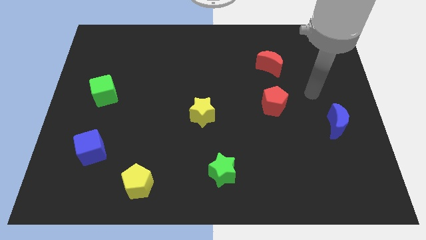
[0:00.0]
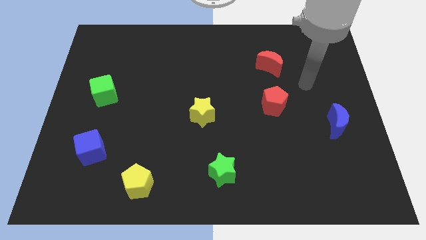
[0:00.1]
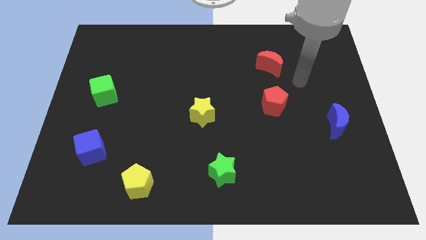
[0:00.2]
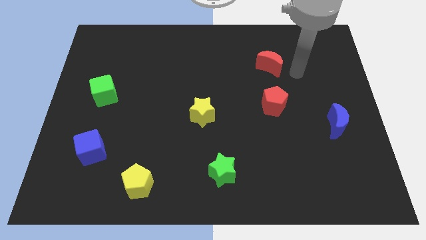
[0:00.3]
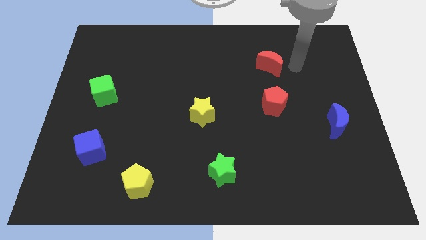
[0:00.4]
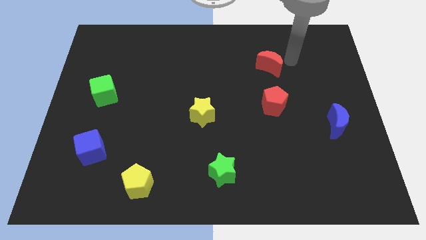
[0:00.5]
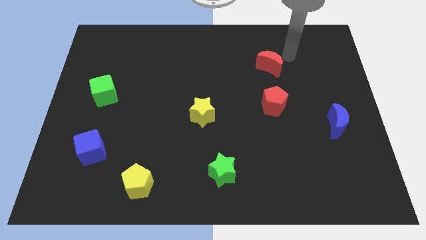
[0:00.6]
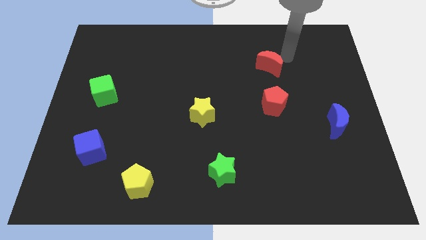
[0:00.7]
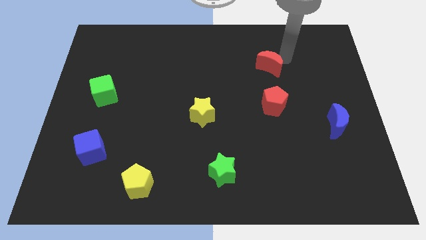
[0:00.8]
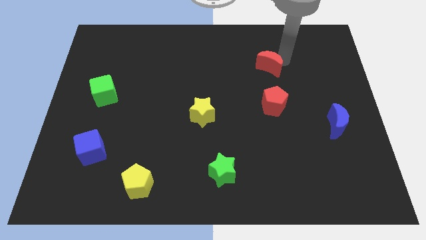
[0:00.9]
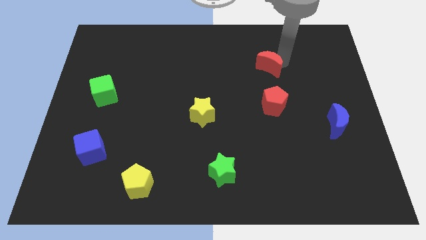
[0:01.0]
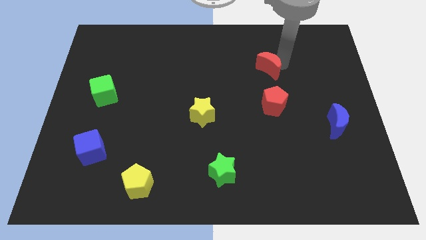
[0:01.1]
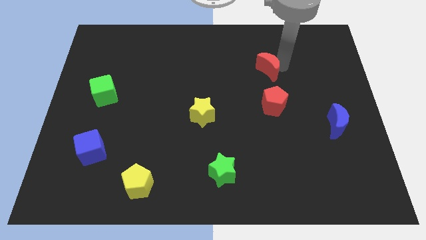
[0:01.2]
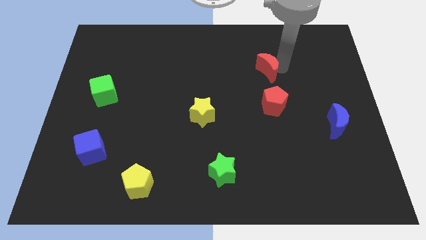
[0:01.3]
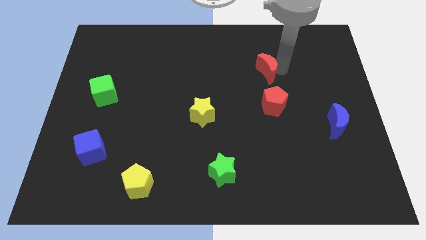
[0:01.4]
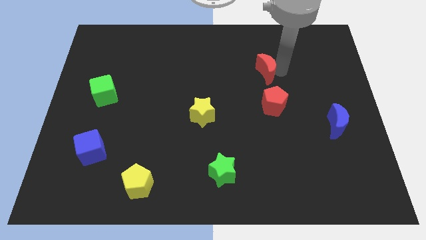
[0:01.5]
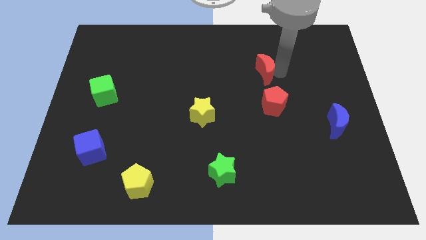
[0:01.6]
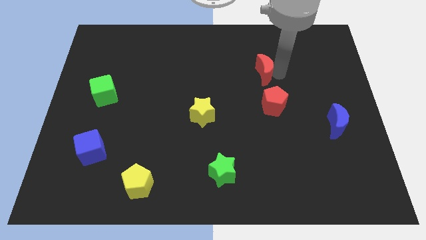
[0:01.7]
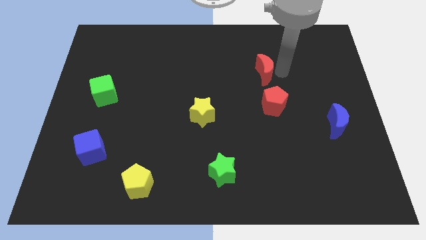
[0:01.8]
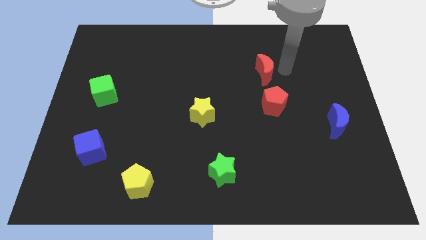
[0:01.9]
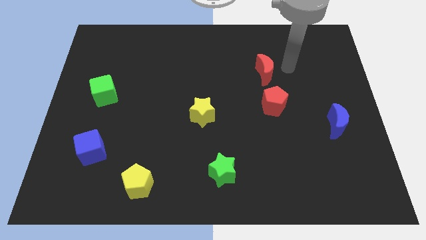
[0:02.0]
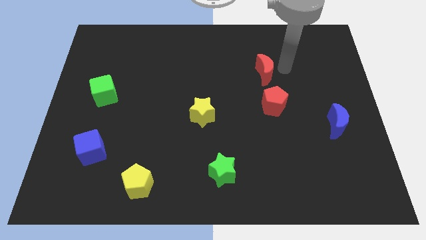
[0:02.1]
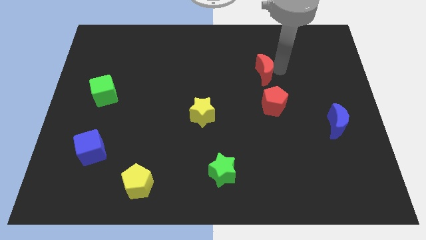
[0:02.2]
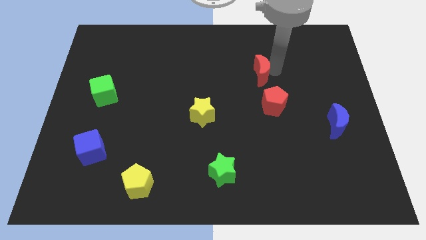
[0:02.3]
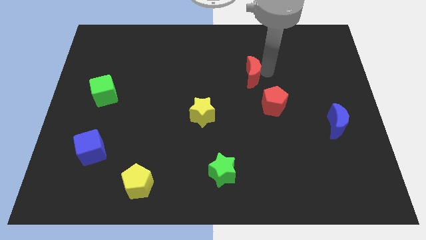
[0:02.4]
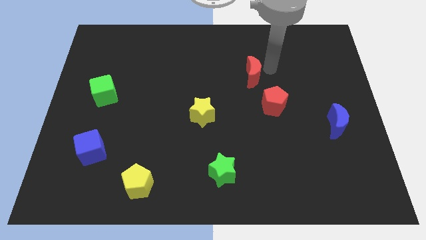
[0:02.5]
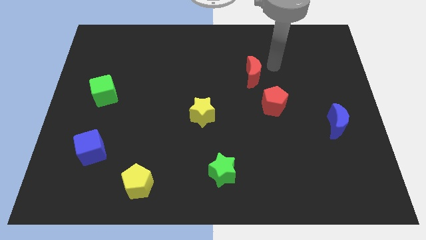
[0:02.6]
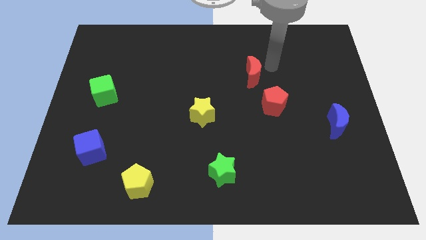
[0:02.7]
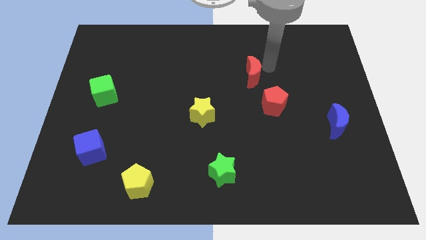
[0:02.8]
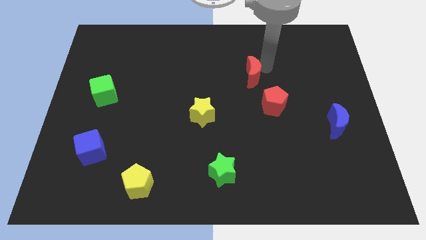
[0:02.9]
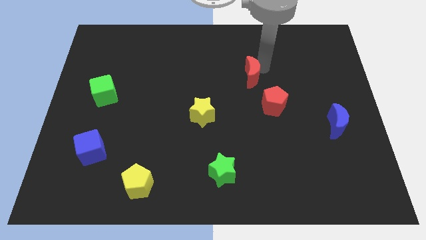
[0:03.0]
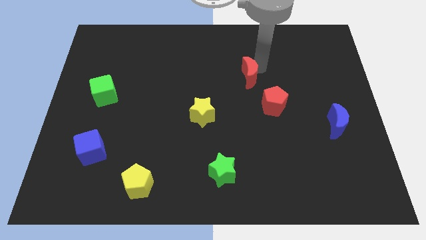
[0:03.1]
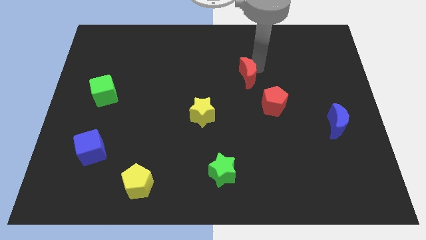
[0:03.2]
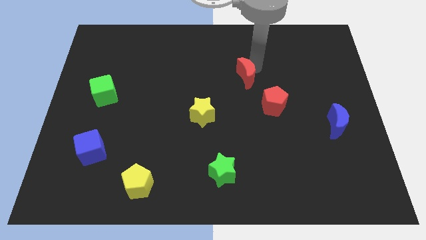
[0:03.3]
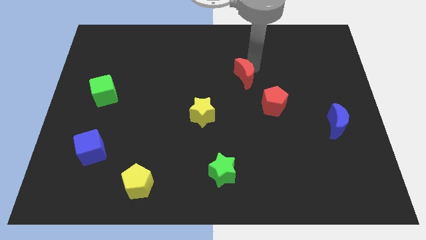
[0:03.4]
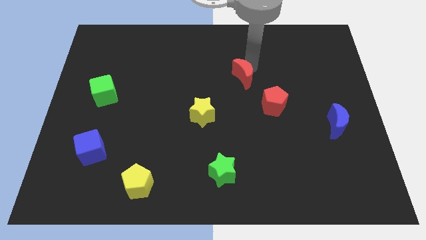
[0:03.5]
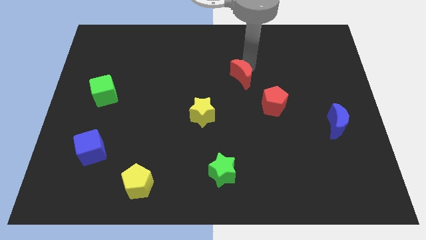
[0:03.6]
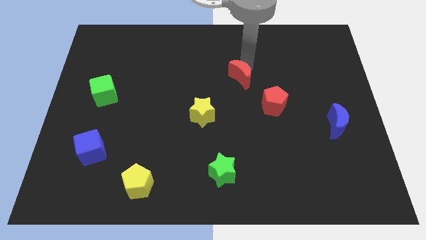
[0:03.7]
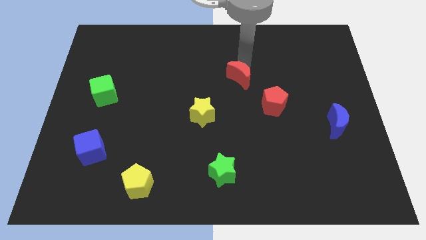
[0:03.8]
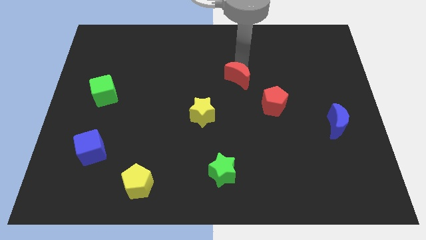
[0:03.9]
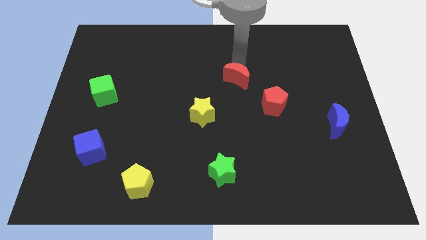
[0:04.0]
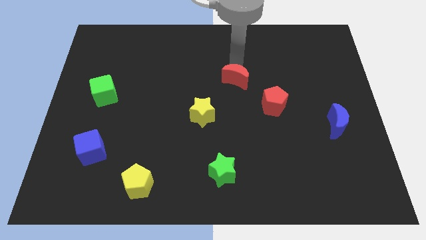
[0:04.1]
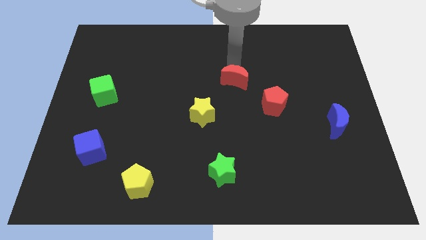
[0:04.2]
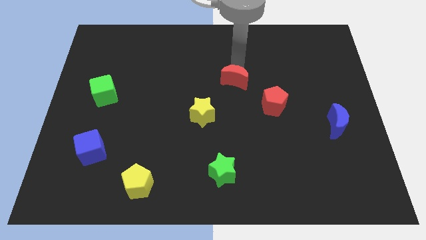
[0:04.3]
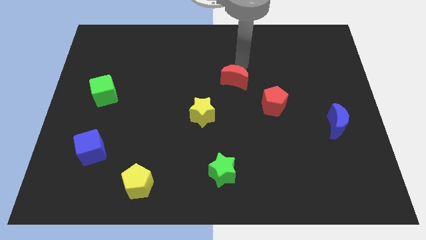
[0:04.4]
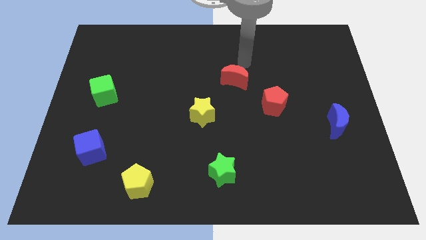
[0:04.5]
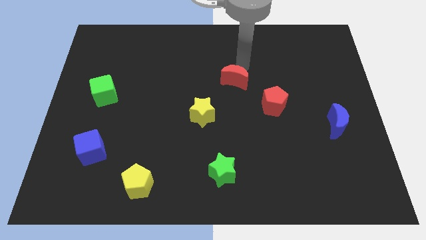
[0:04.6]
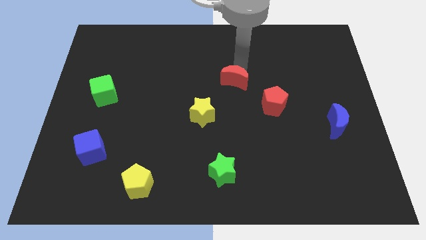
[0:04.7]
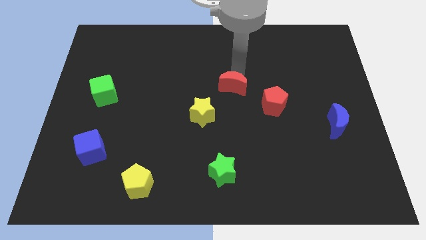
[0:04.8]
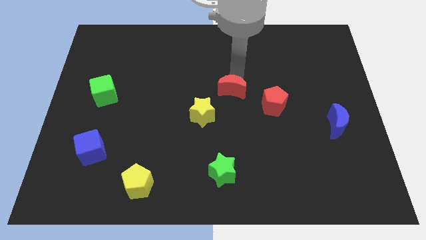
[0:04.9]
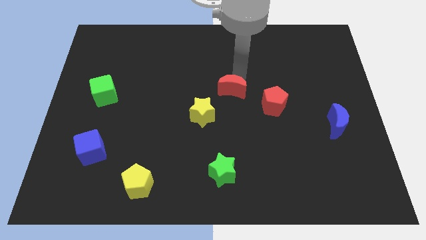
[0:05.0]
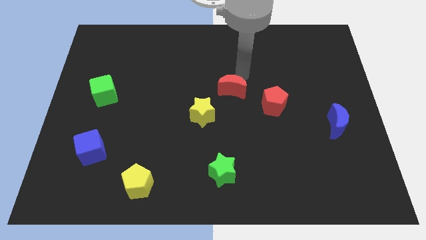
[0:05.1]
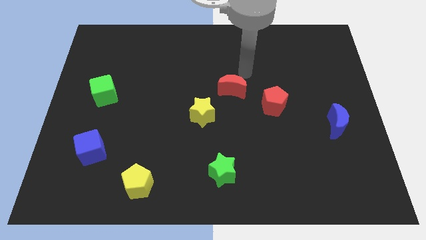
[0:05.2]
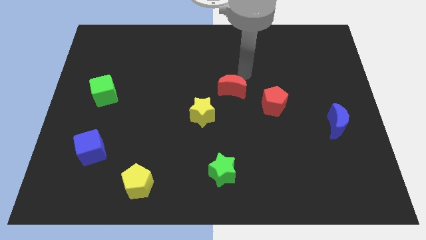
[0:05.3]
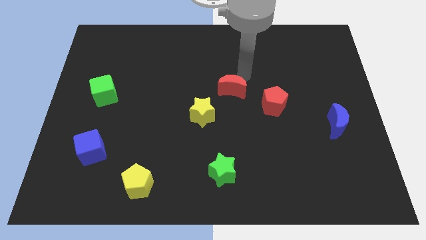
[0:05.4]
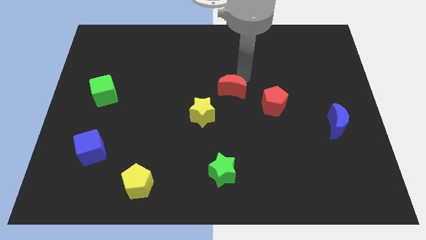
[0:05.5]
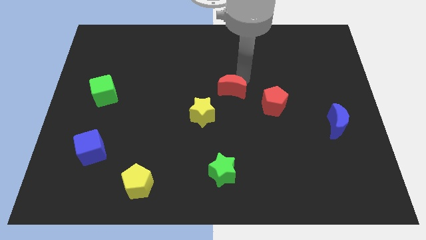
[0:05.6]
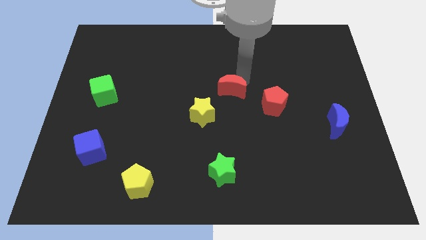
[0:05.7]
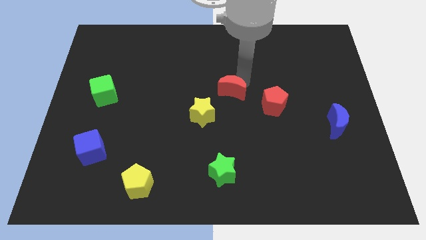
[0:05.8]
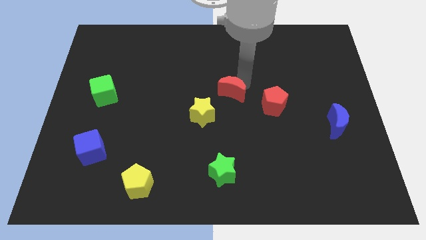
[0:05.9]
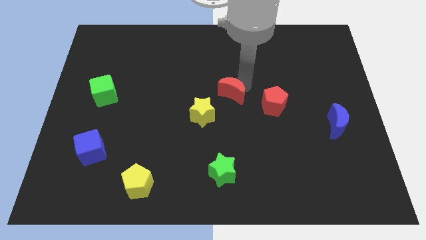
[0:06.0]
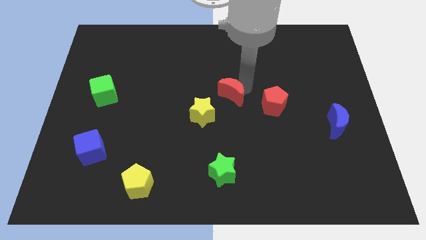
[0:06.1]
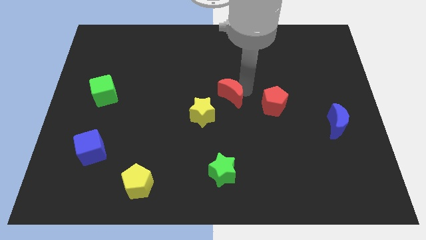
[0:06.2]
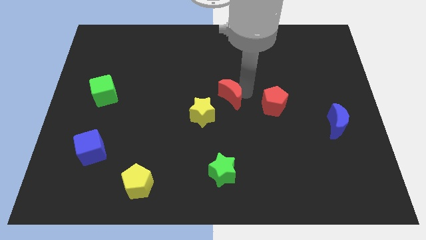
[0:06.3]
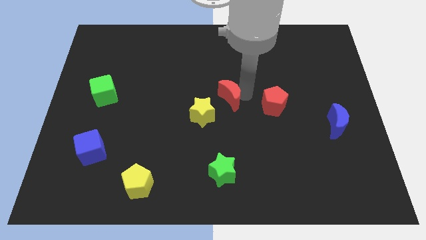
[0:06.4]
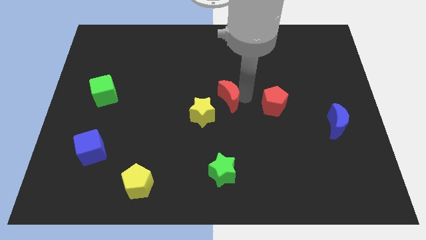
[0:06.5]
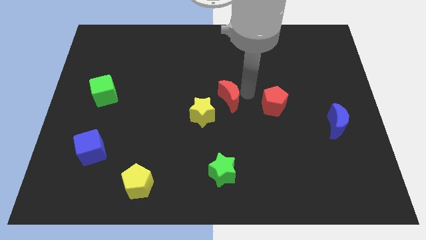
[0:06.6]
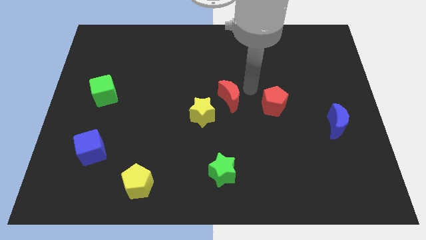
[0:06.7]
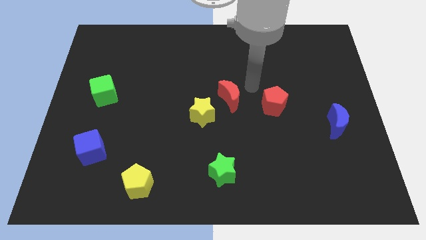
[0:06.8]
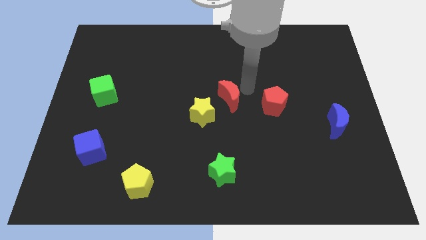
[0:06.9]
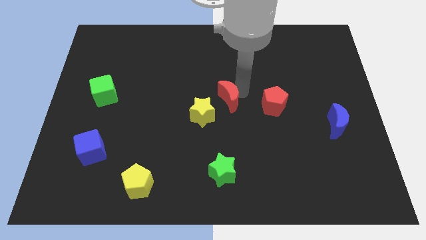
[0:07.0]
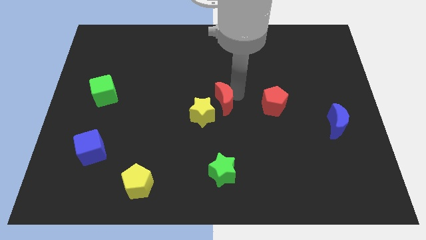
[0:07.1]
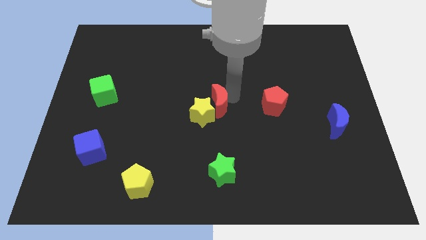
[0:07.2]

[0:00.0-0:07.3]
slide the red moon to the yellow star
